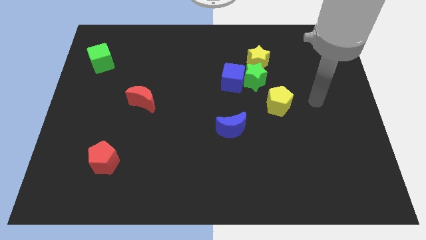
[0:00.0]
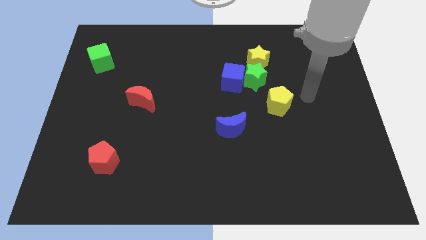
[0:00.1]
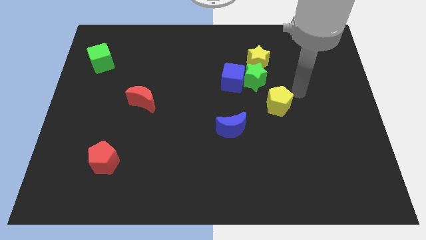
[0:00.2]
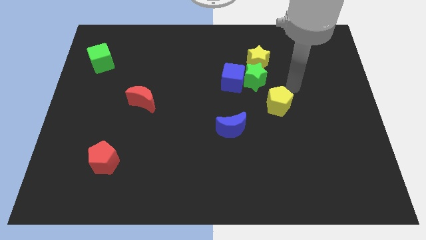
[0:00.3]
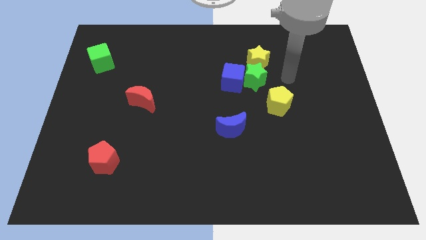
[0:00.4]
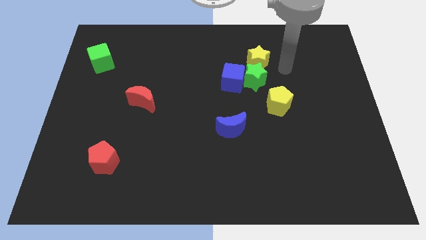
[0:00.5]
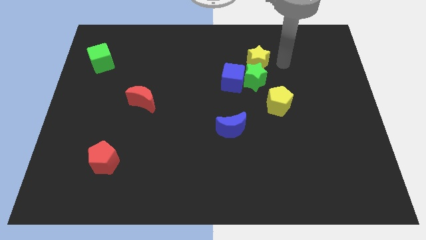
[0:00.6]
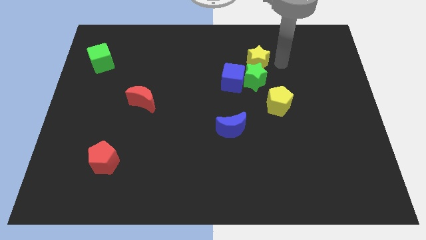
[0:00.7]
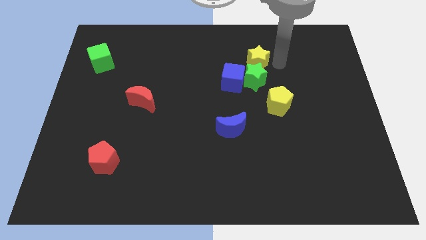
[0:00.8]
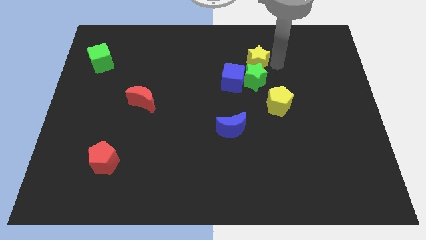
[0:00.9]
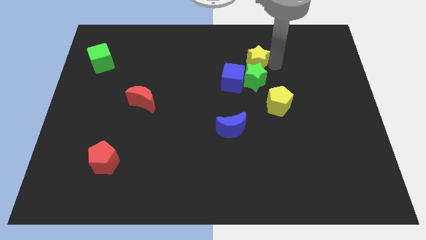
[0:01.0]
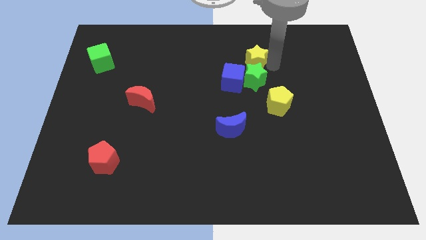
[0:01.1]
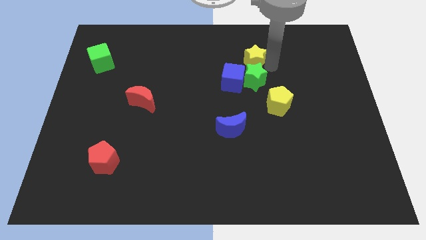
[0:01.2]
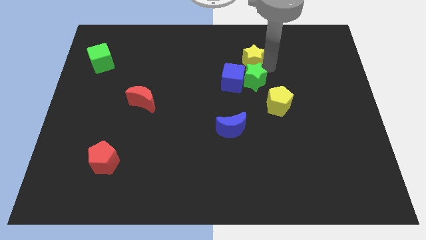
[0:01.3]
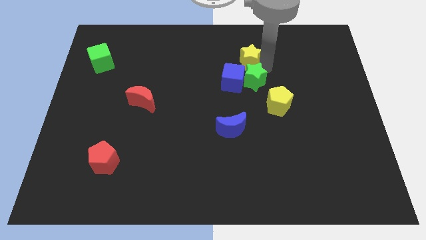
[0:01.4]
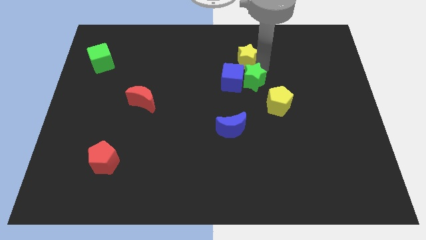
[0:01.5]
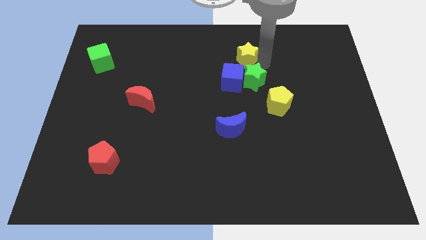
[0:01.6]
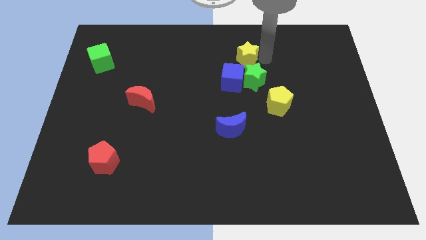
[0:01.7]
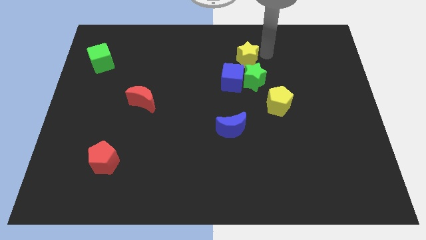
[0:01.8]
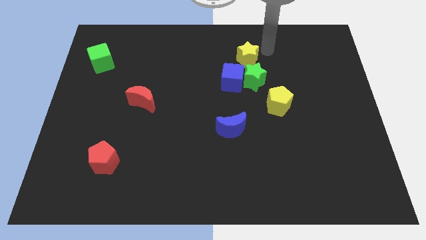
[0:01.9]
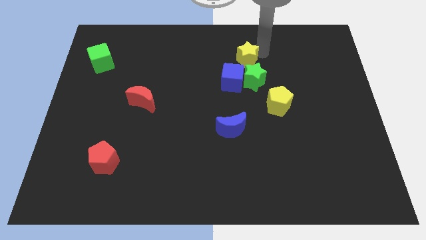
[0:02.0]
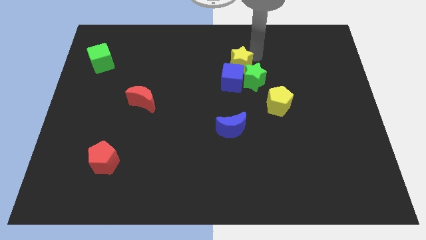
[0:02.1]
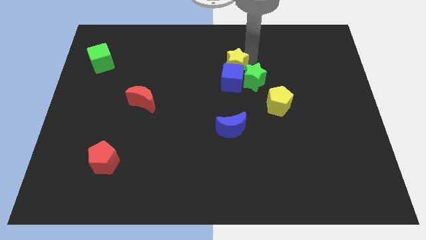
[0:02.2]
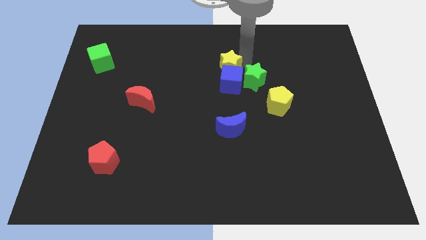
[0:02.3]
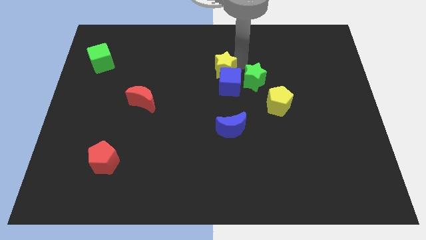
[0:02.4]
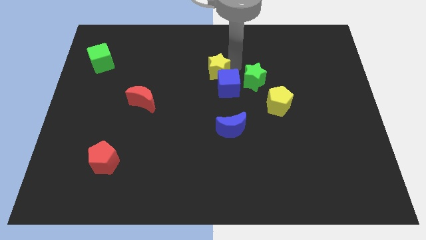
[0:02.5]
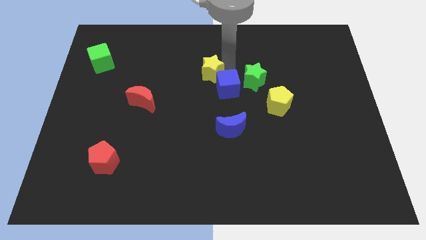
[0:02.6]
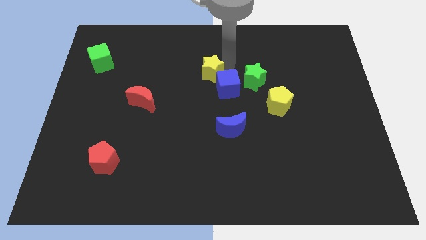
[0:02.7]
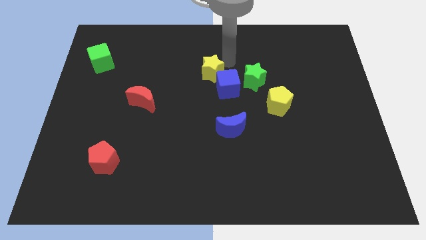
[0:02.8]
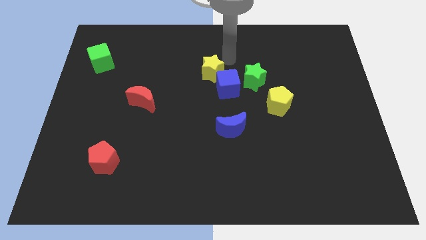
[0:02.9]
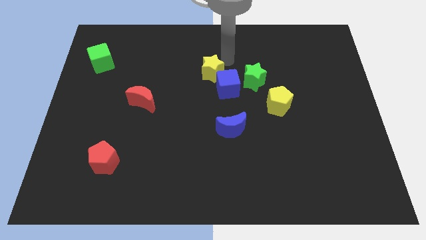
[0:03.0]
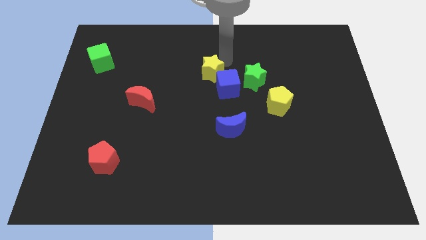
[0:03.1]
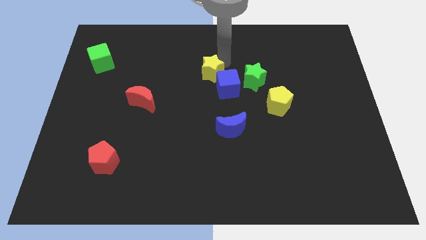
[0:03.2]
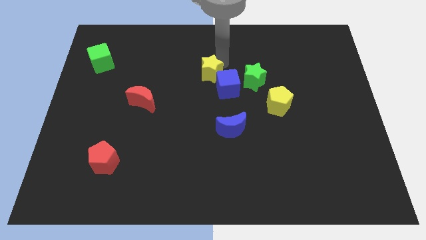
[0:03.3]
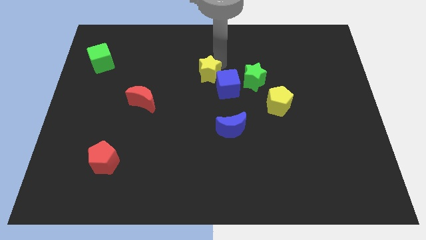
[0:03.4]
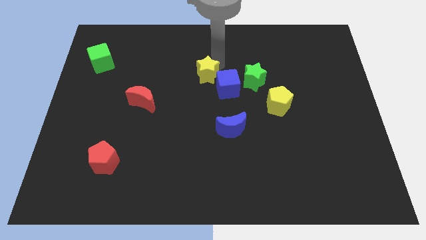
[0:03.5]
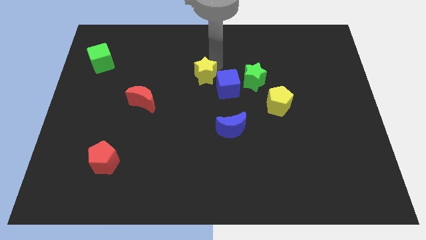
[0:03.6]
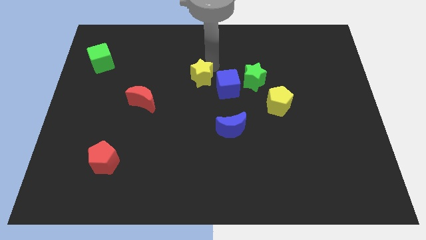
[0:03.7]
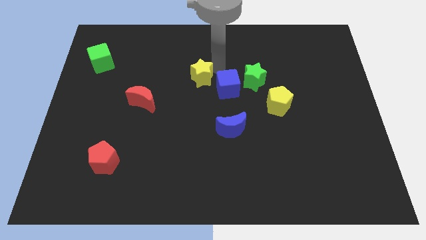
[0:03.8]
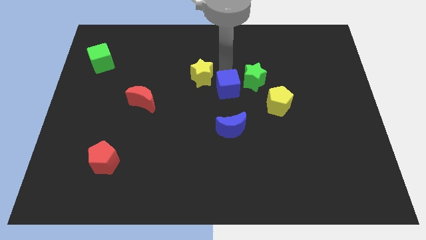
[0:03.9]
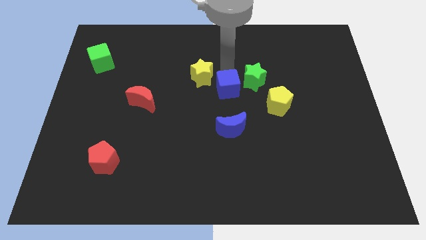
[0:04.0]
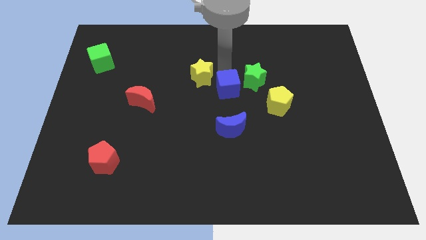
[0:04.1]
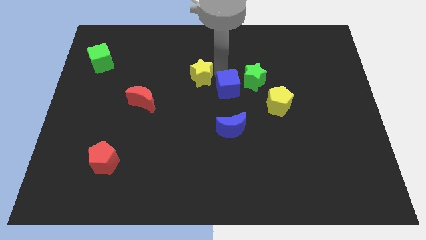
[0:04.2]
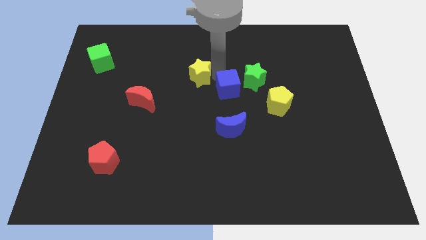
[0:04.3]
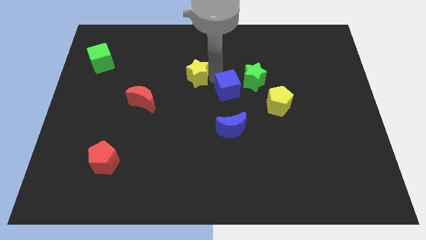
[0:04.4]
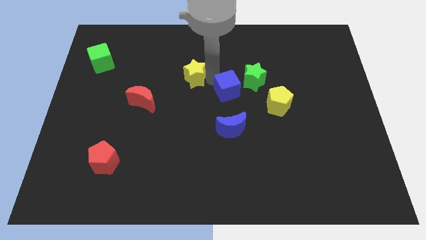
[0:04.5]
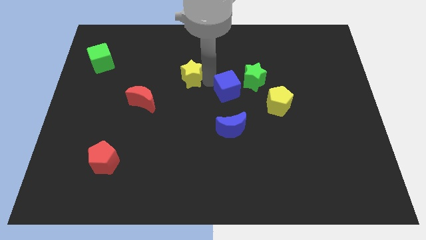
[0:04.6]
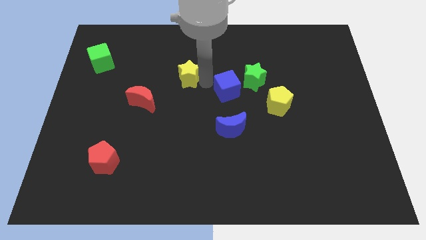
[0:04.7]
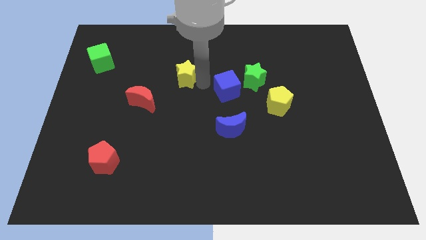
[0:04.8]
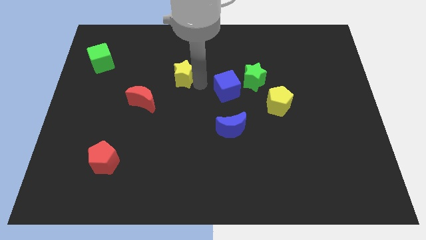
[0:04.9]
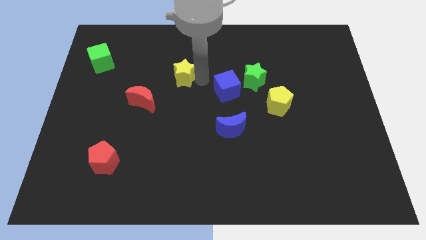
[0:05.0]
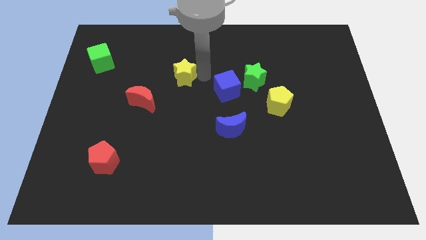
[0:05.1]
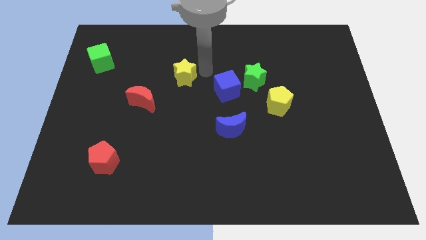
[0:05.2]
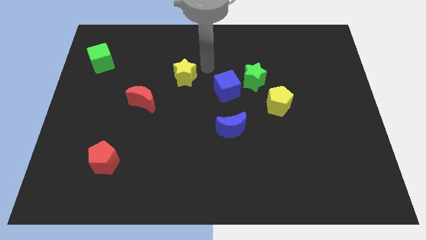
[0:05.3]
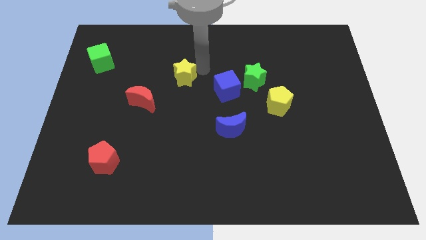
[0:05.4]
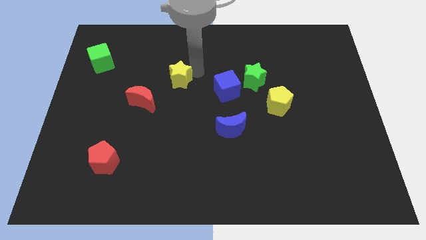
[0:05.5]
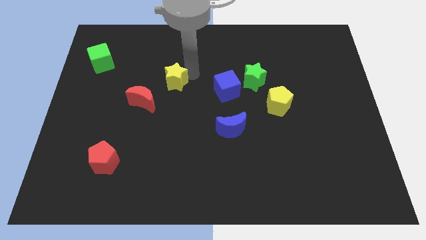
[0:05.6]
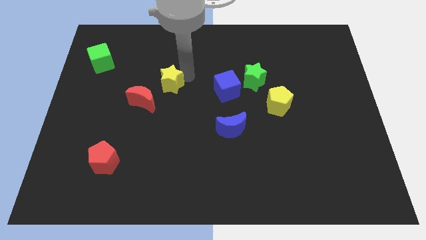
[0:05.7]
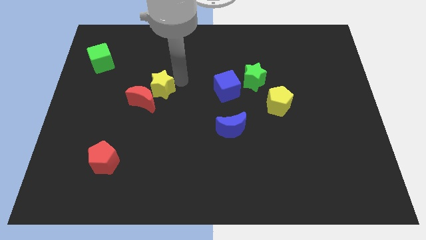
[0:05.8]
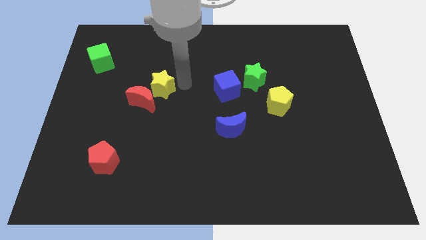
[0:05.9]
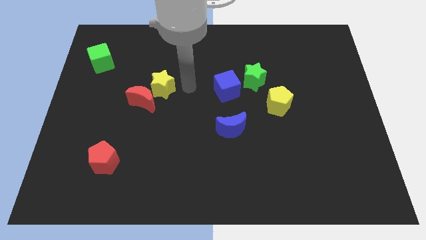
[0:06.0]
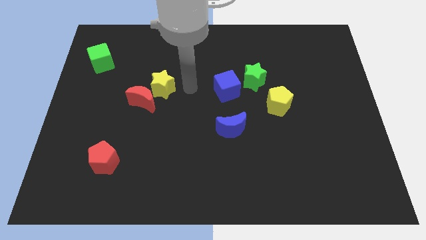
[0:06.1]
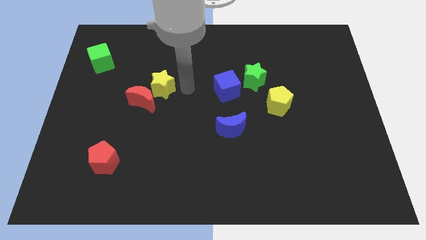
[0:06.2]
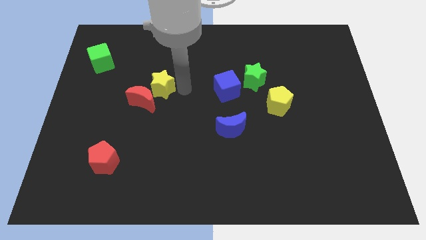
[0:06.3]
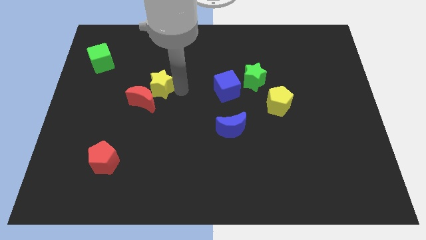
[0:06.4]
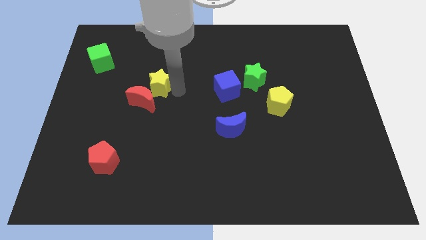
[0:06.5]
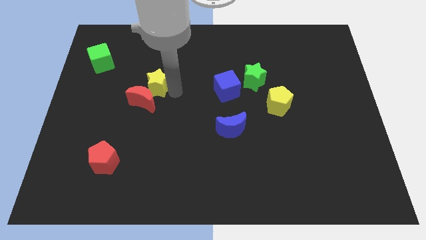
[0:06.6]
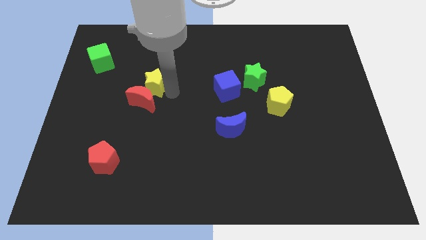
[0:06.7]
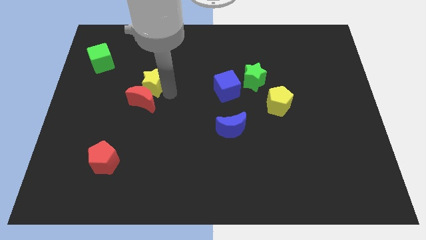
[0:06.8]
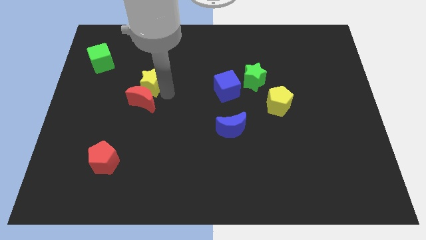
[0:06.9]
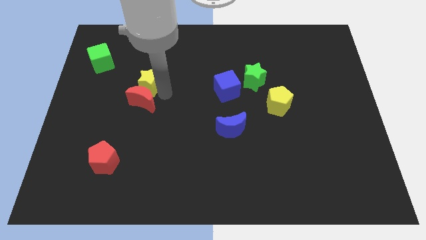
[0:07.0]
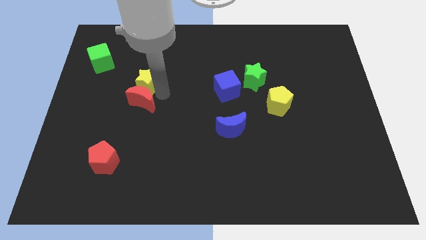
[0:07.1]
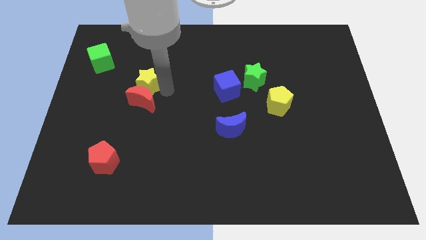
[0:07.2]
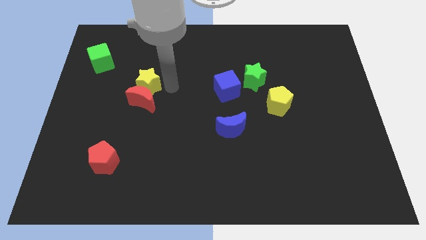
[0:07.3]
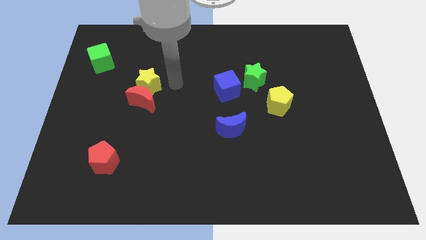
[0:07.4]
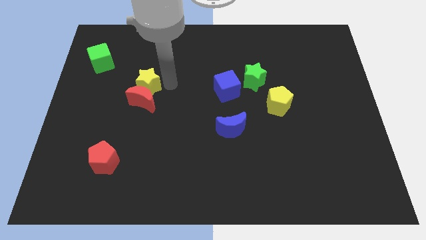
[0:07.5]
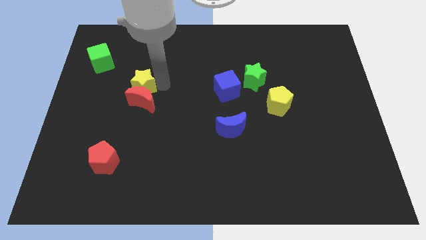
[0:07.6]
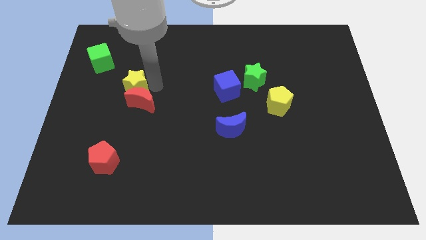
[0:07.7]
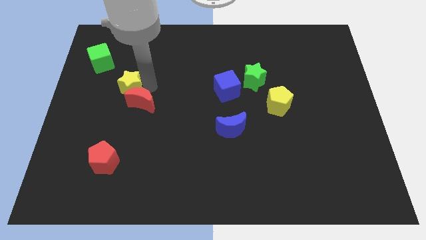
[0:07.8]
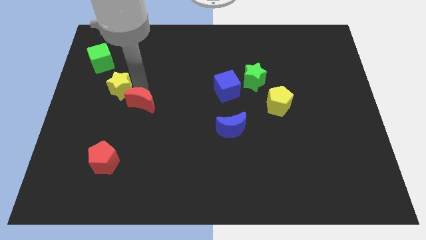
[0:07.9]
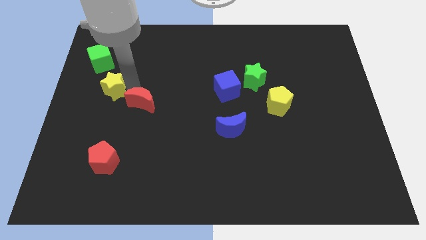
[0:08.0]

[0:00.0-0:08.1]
push the yellow star to the bottom of the green cube
